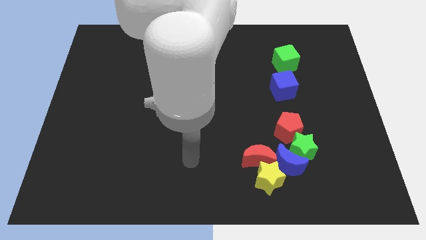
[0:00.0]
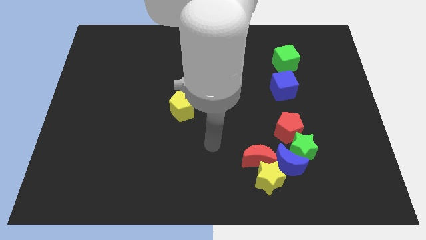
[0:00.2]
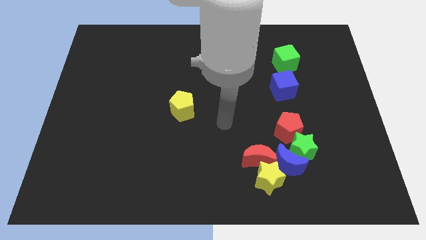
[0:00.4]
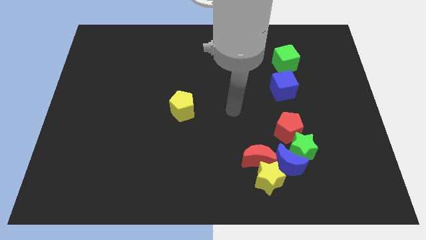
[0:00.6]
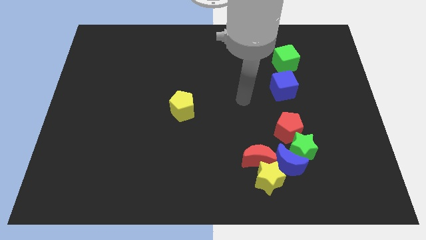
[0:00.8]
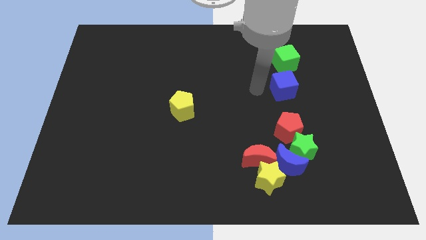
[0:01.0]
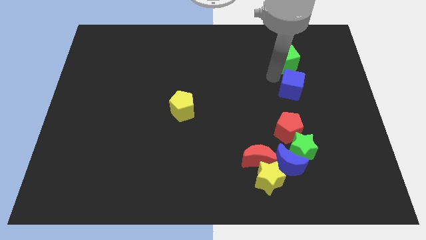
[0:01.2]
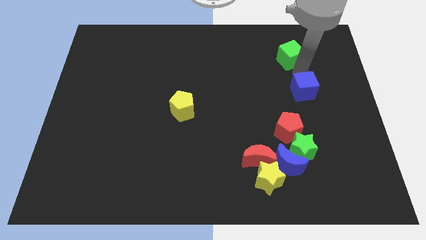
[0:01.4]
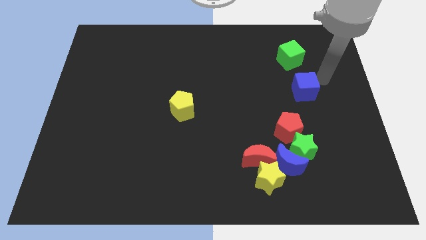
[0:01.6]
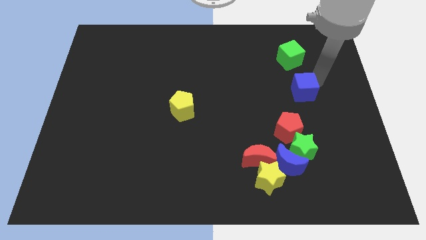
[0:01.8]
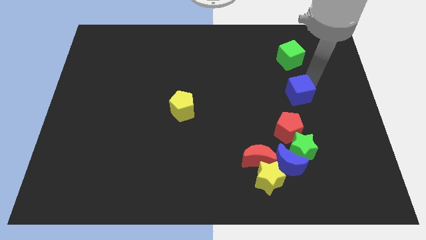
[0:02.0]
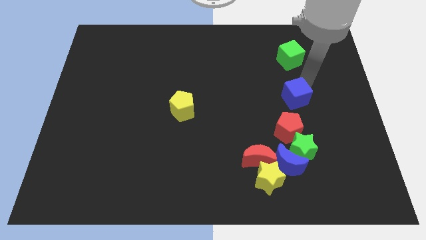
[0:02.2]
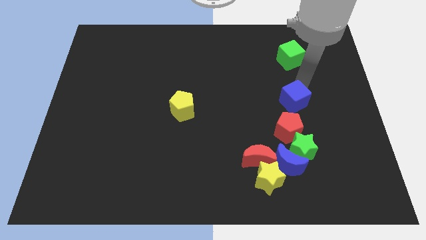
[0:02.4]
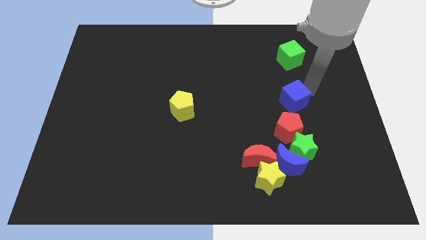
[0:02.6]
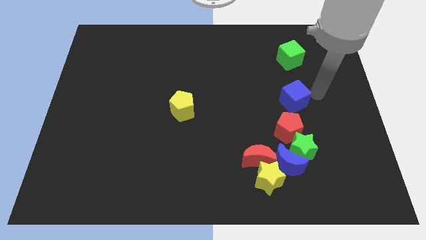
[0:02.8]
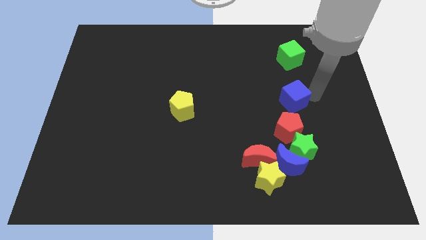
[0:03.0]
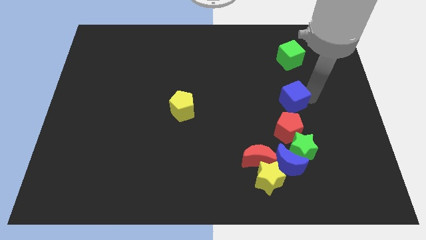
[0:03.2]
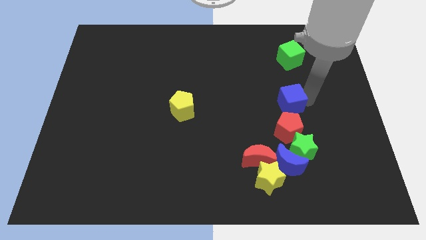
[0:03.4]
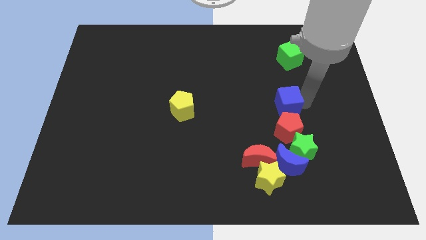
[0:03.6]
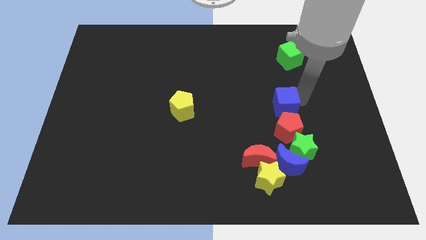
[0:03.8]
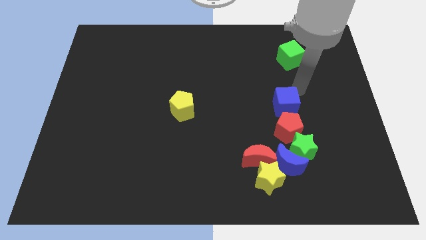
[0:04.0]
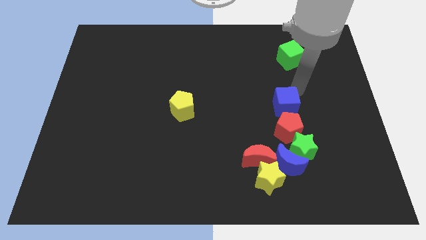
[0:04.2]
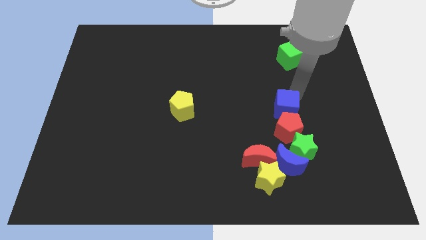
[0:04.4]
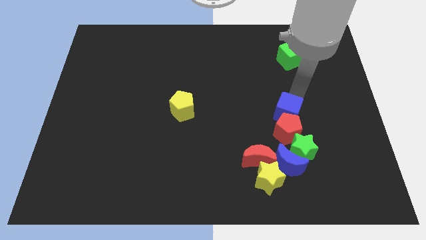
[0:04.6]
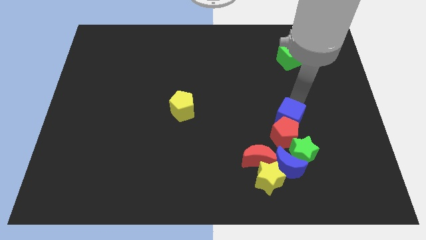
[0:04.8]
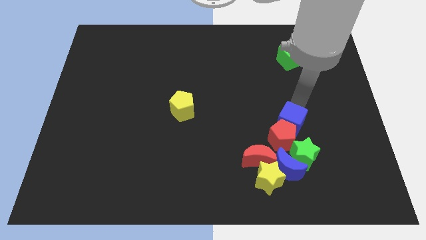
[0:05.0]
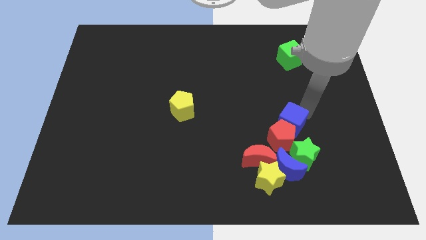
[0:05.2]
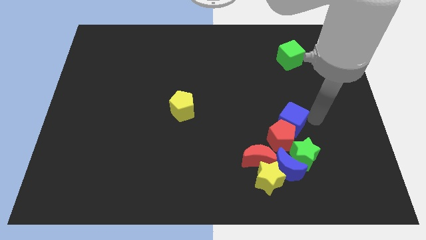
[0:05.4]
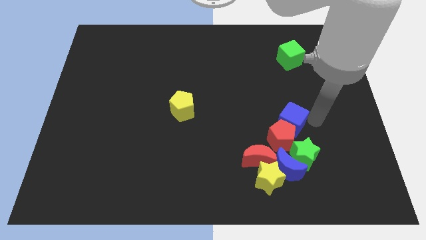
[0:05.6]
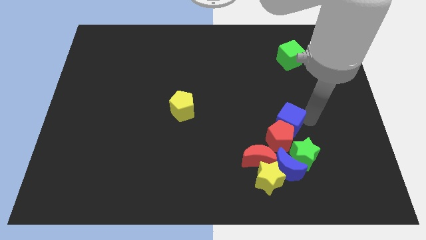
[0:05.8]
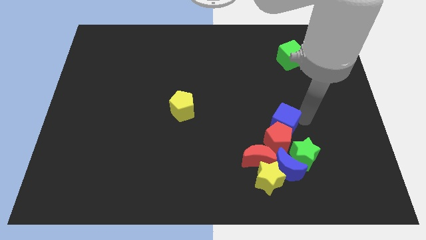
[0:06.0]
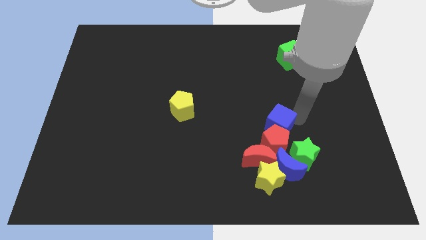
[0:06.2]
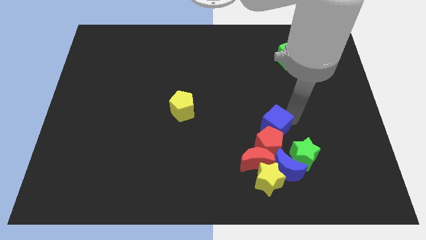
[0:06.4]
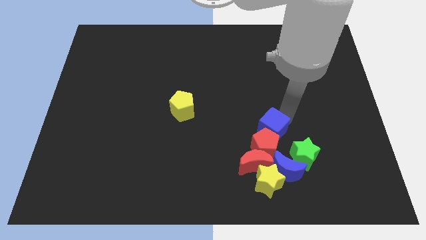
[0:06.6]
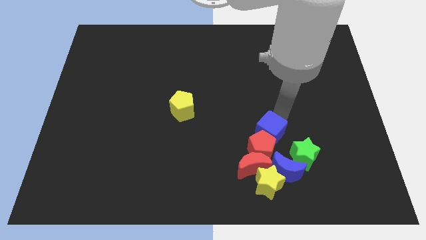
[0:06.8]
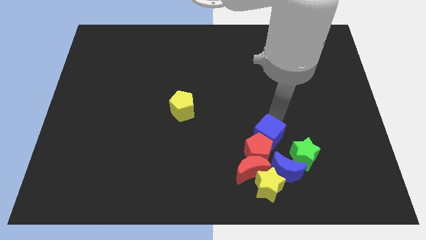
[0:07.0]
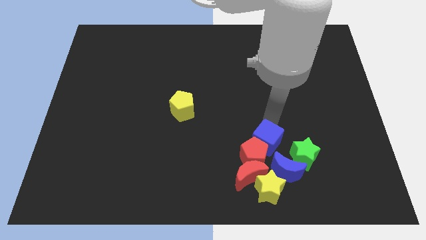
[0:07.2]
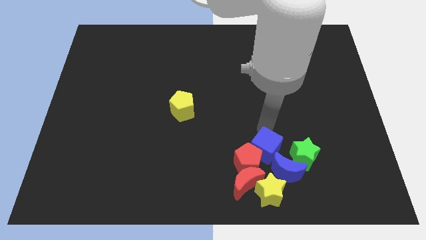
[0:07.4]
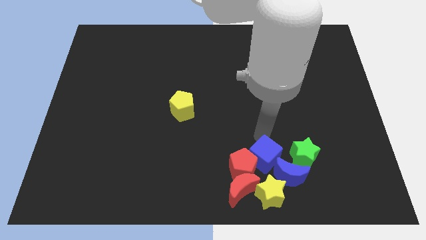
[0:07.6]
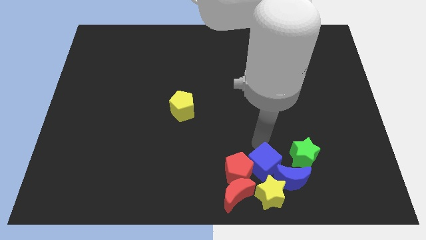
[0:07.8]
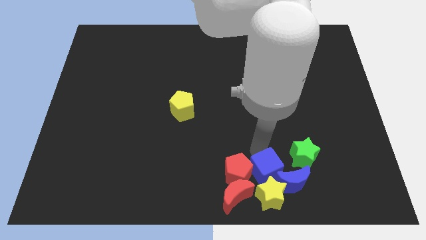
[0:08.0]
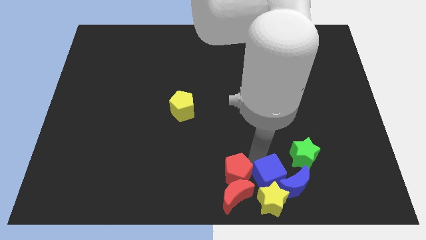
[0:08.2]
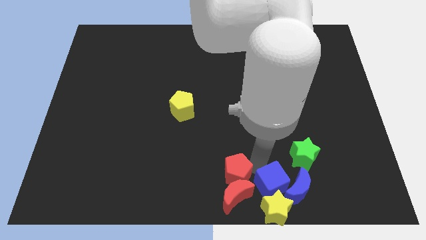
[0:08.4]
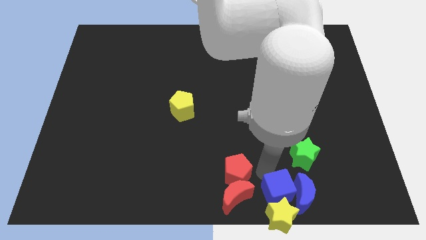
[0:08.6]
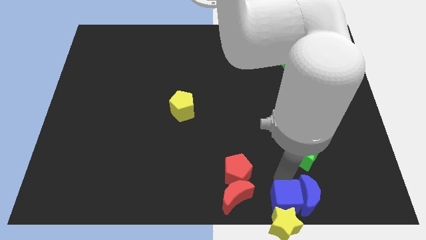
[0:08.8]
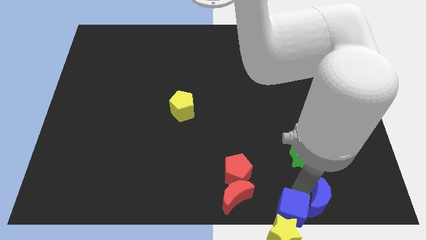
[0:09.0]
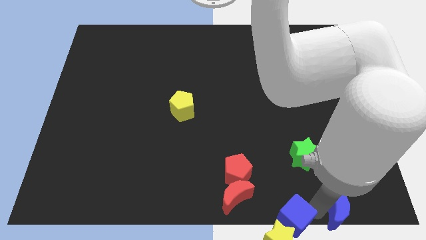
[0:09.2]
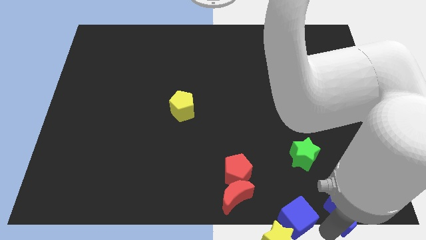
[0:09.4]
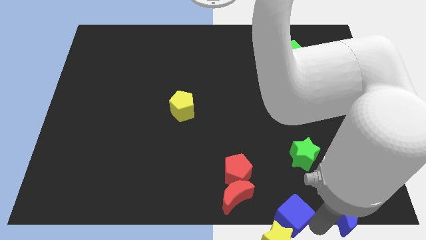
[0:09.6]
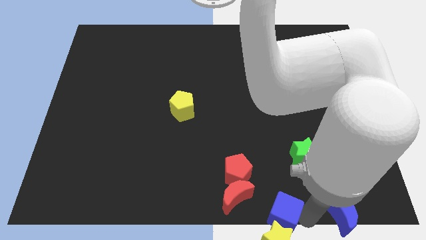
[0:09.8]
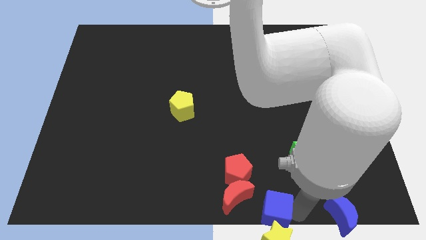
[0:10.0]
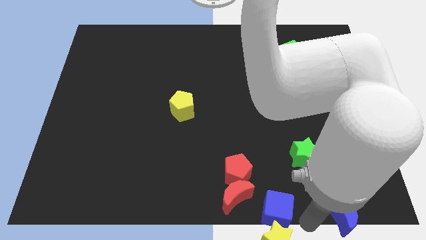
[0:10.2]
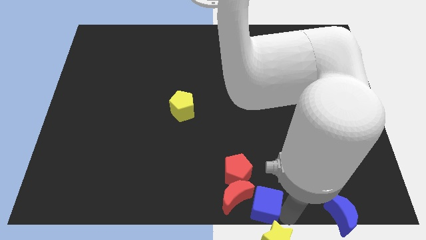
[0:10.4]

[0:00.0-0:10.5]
slide the blue cube next to the red moon

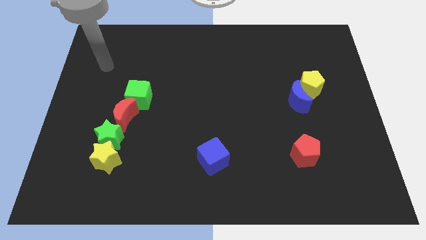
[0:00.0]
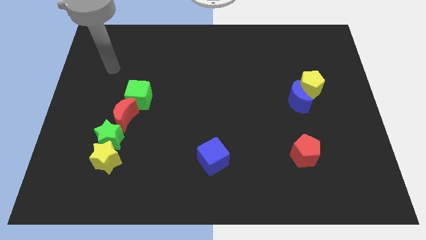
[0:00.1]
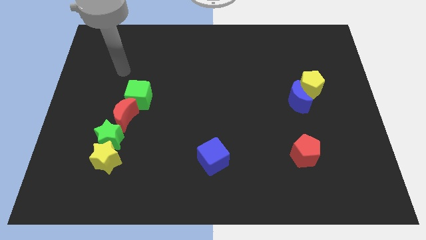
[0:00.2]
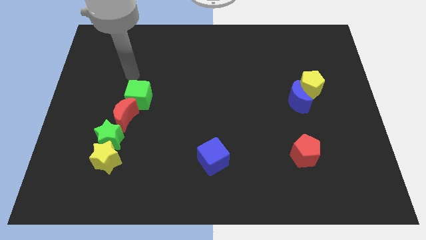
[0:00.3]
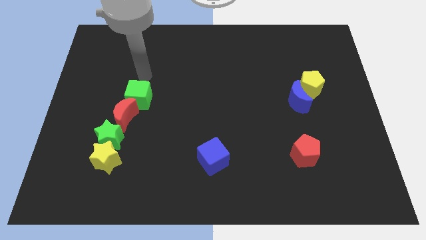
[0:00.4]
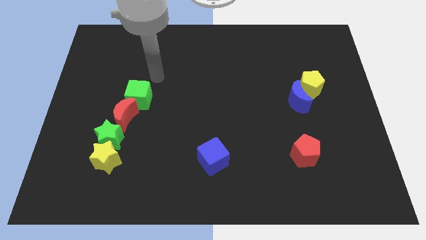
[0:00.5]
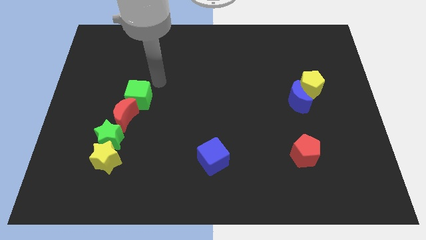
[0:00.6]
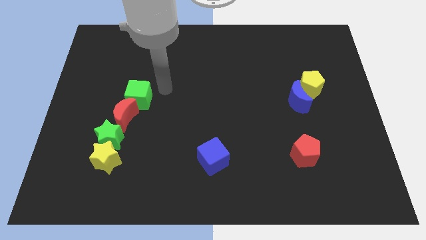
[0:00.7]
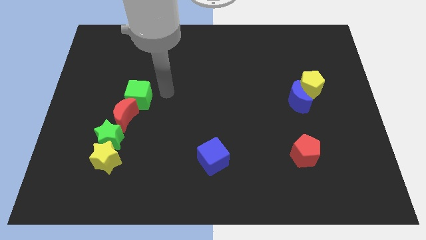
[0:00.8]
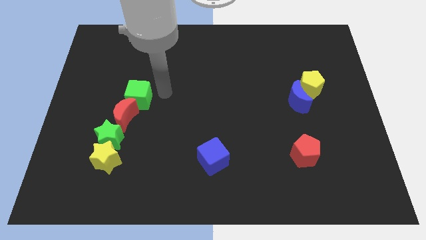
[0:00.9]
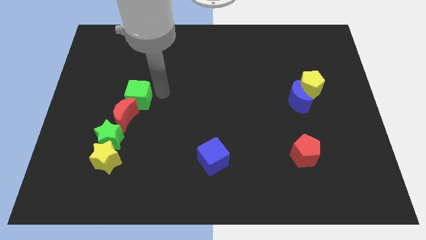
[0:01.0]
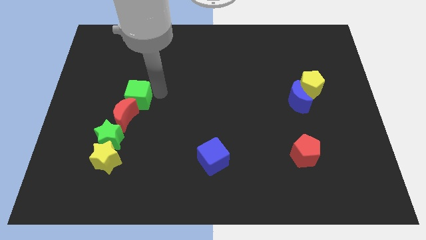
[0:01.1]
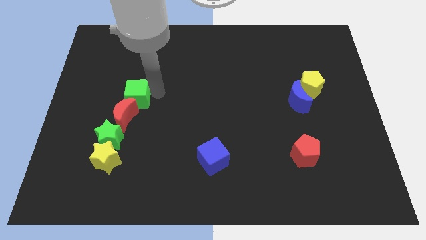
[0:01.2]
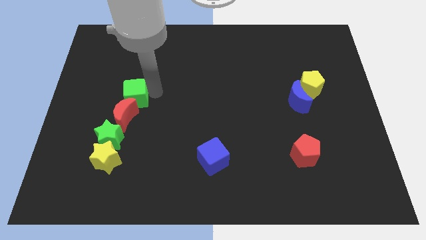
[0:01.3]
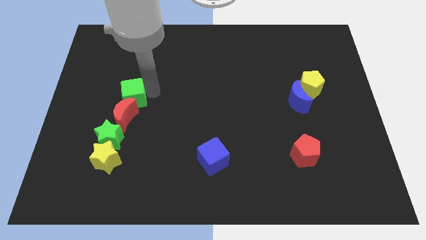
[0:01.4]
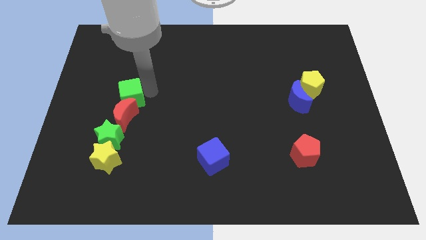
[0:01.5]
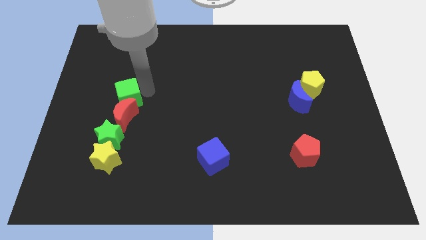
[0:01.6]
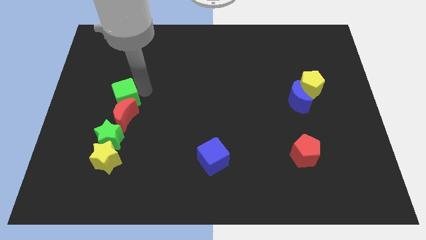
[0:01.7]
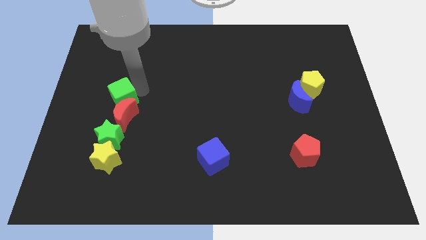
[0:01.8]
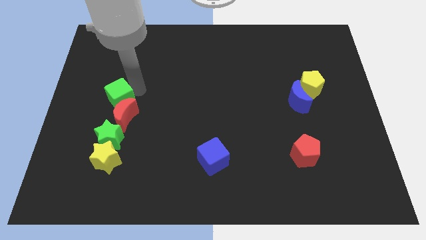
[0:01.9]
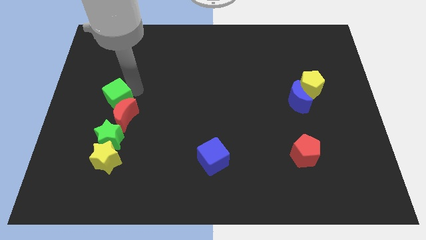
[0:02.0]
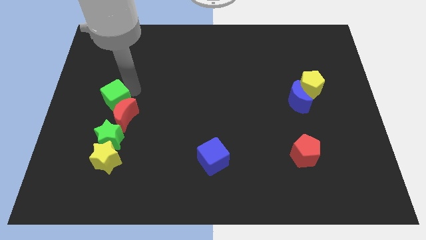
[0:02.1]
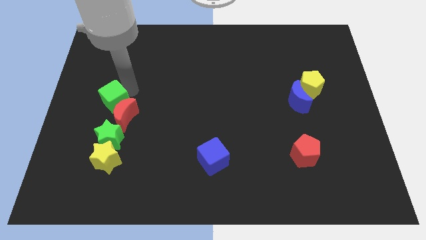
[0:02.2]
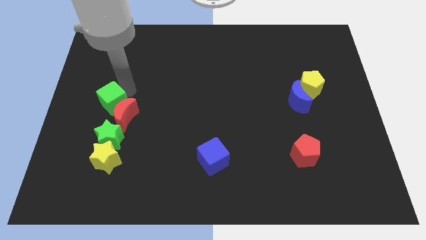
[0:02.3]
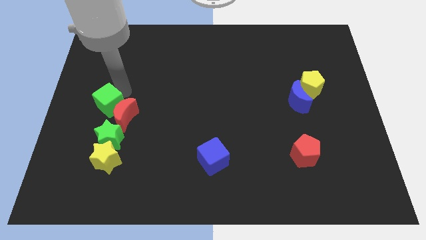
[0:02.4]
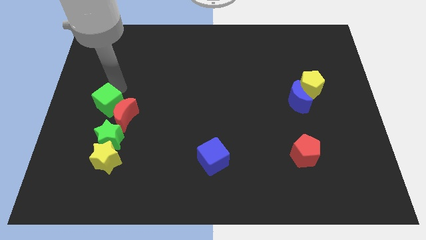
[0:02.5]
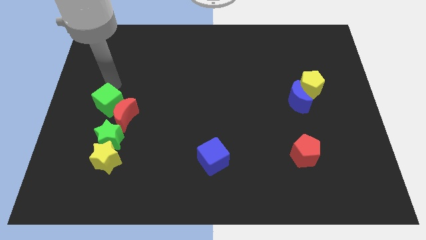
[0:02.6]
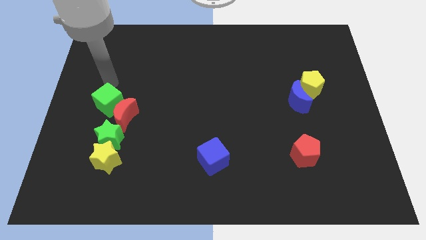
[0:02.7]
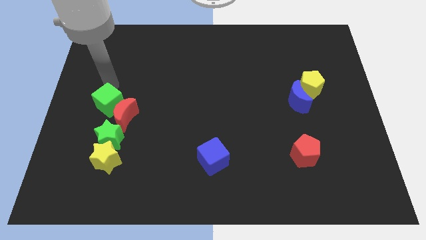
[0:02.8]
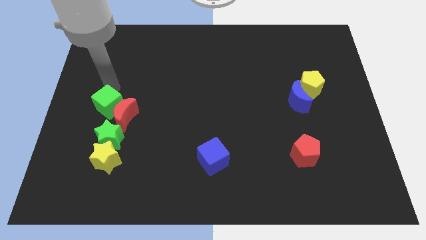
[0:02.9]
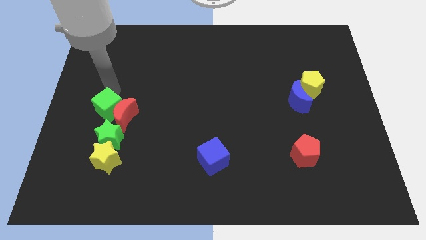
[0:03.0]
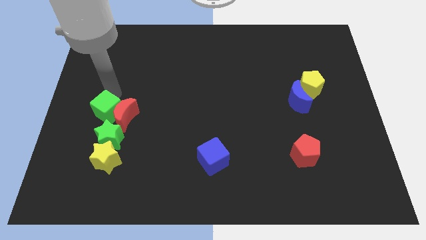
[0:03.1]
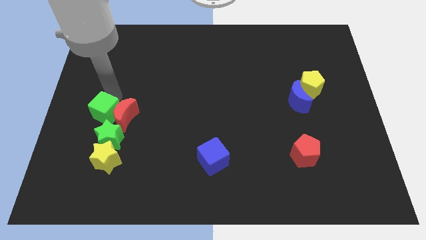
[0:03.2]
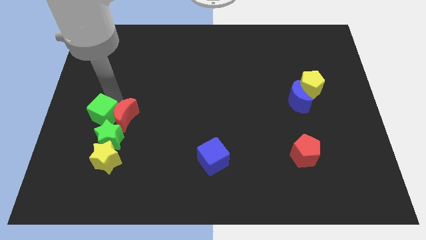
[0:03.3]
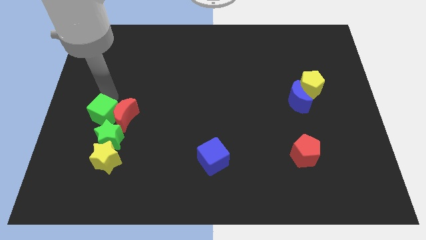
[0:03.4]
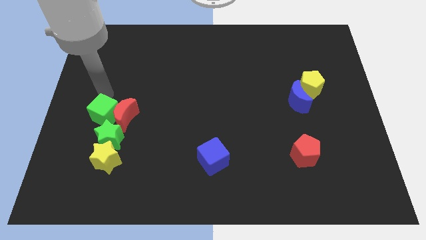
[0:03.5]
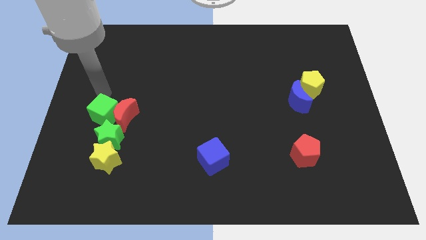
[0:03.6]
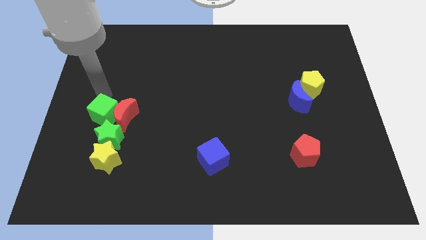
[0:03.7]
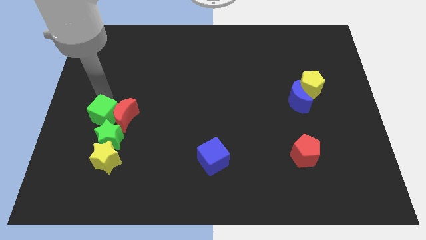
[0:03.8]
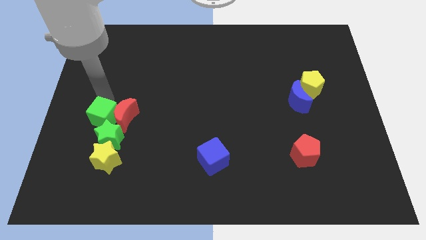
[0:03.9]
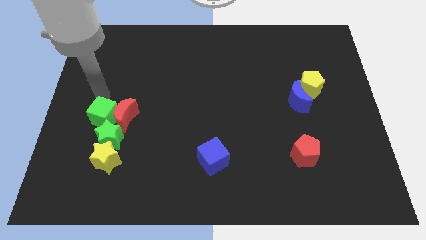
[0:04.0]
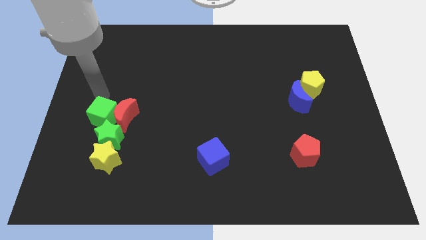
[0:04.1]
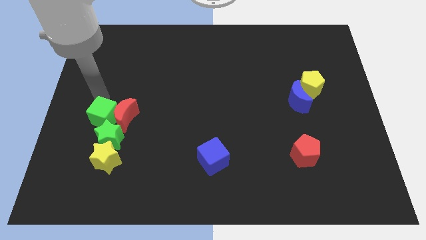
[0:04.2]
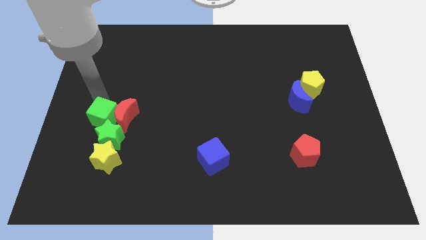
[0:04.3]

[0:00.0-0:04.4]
push the green cube close to the green star
